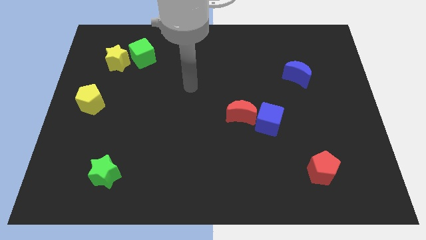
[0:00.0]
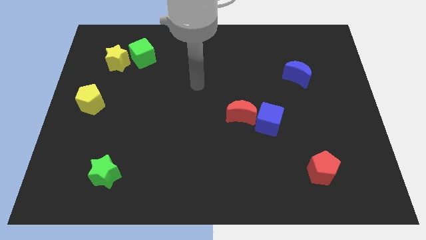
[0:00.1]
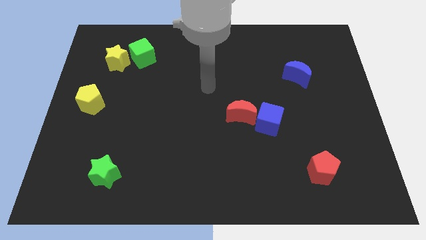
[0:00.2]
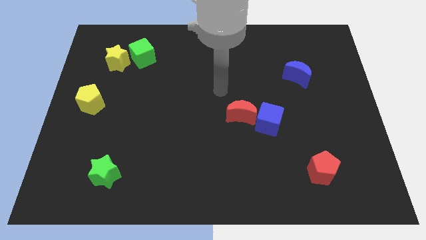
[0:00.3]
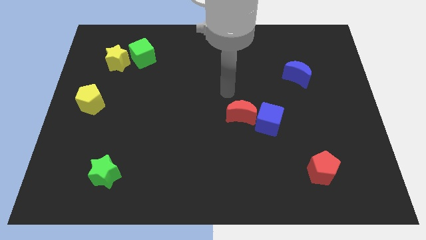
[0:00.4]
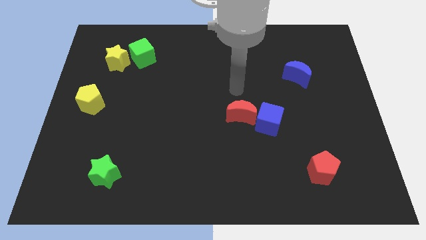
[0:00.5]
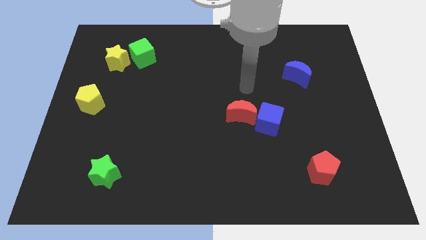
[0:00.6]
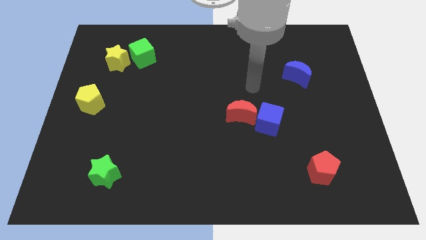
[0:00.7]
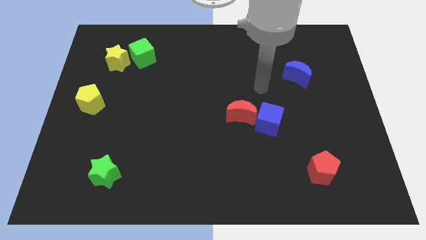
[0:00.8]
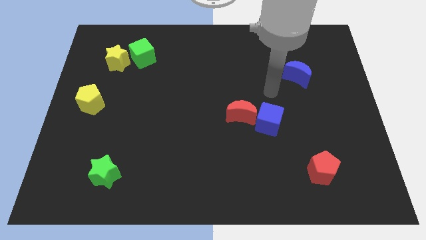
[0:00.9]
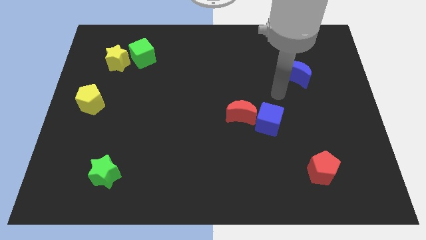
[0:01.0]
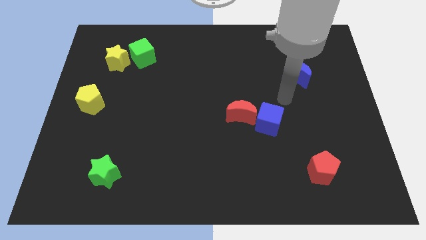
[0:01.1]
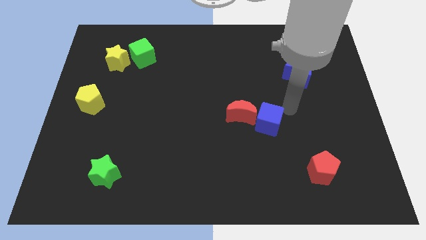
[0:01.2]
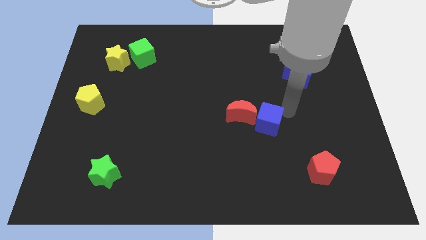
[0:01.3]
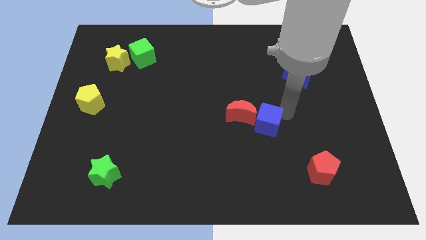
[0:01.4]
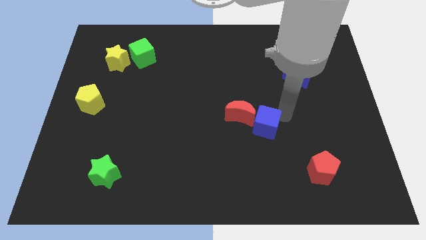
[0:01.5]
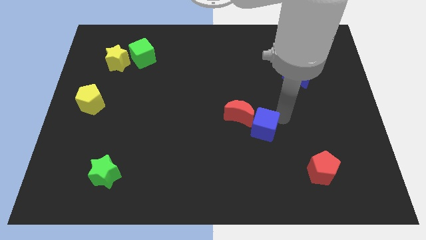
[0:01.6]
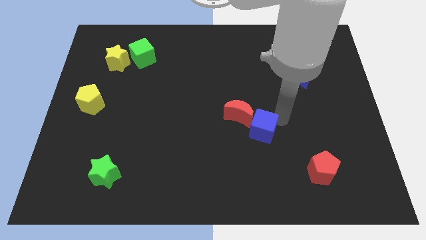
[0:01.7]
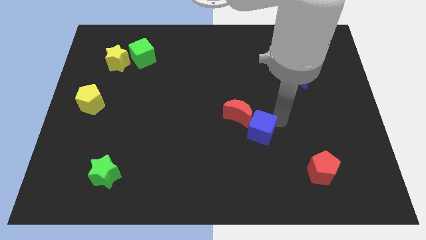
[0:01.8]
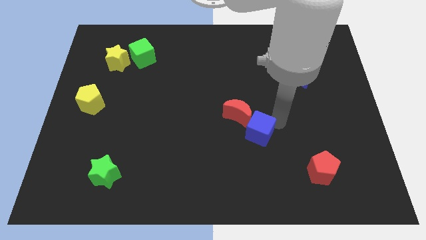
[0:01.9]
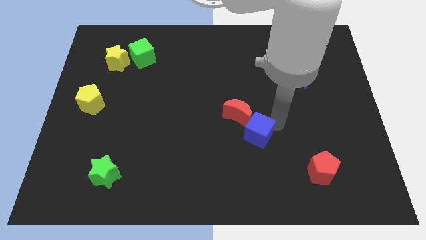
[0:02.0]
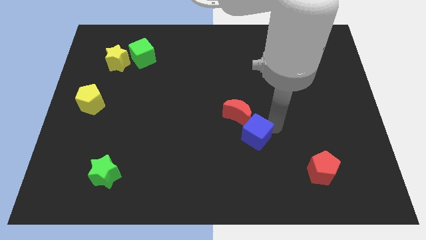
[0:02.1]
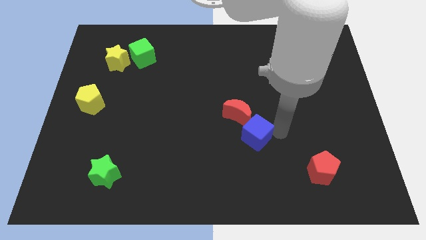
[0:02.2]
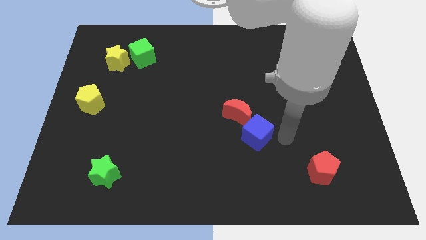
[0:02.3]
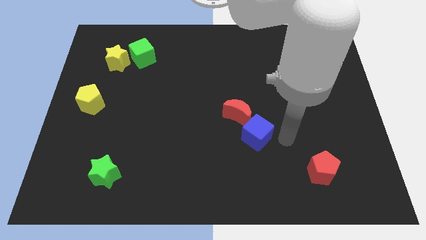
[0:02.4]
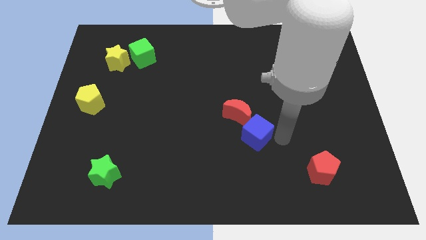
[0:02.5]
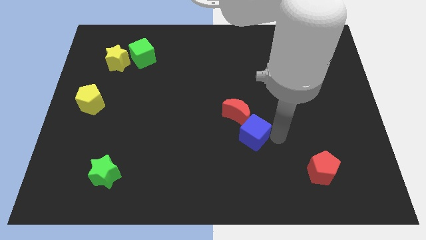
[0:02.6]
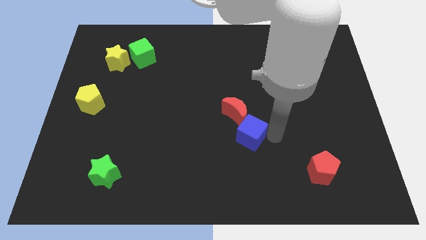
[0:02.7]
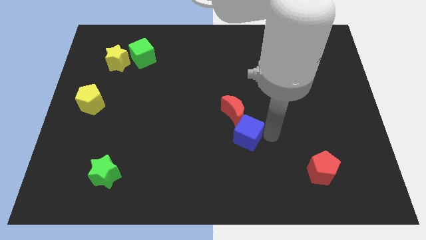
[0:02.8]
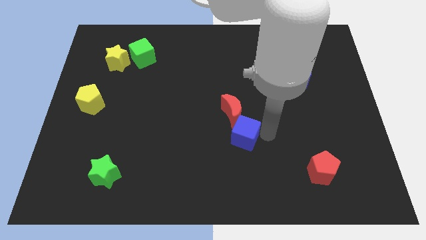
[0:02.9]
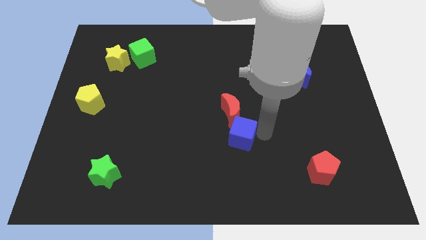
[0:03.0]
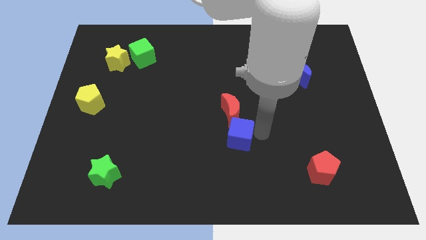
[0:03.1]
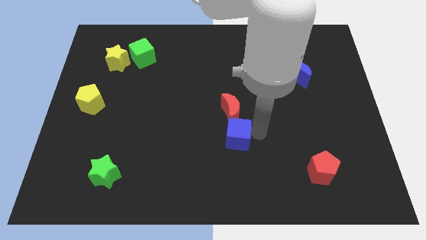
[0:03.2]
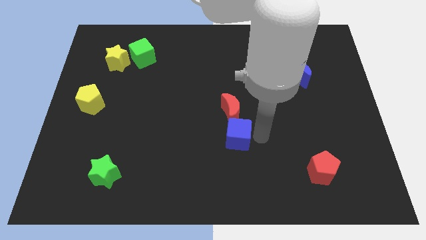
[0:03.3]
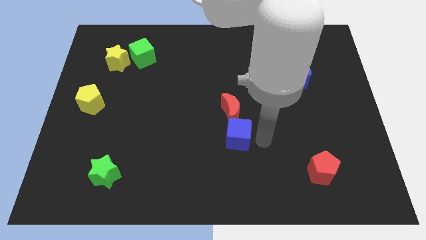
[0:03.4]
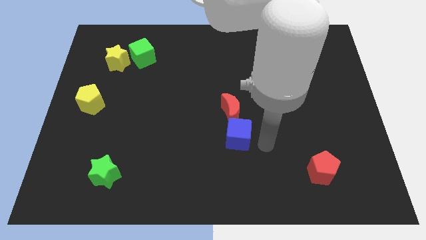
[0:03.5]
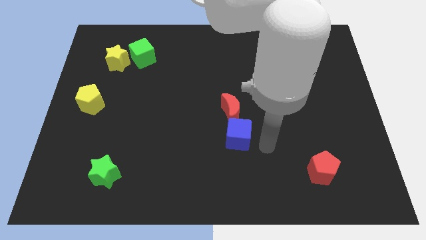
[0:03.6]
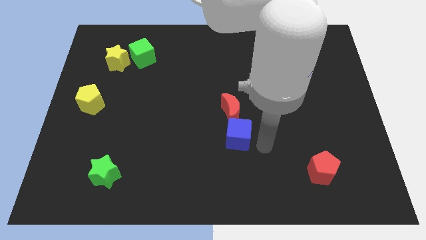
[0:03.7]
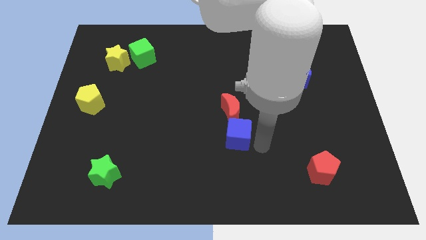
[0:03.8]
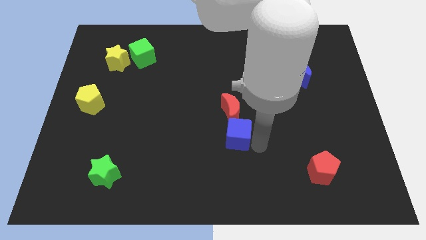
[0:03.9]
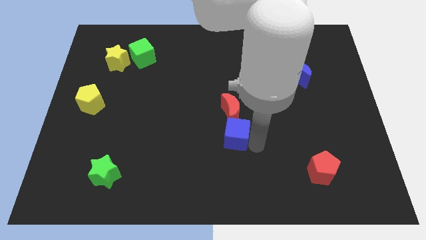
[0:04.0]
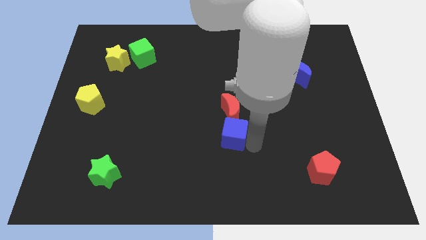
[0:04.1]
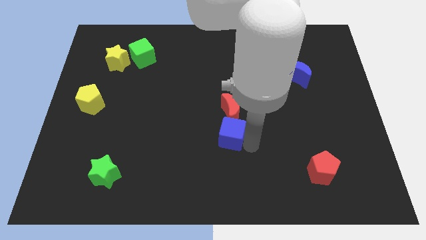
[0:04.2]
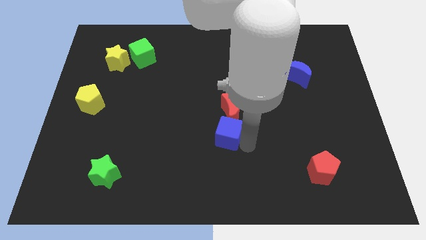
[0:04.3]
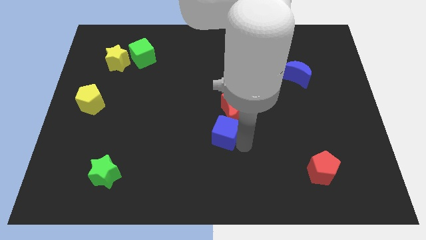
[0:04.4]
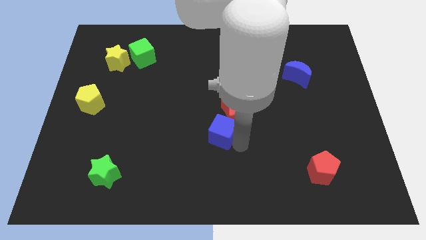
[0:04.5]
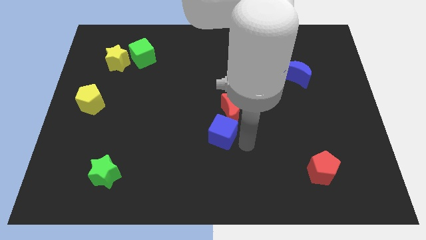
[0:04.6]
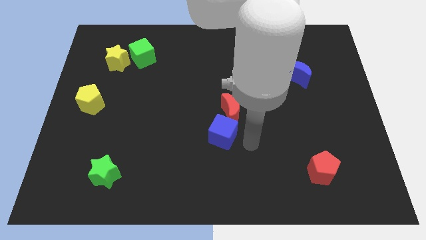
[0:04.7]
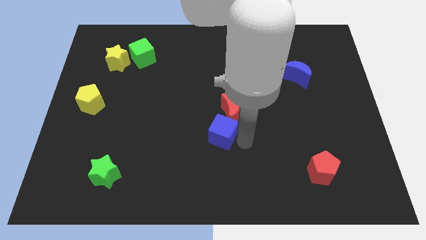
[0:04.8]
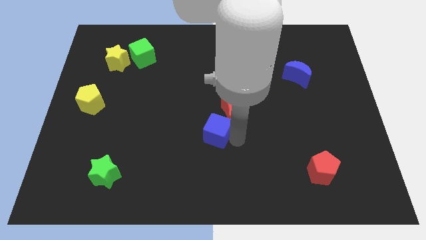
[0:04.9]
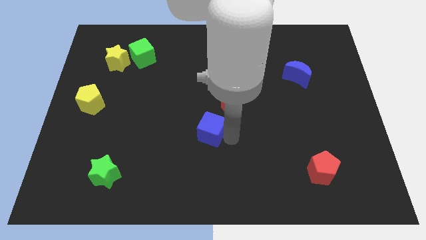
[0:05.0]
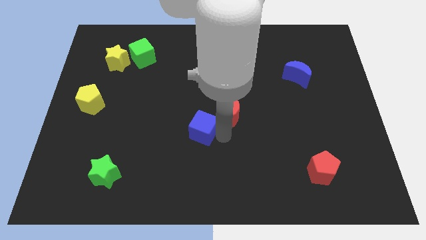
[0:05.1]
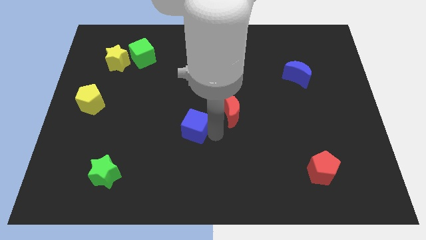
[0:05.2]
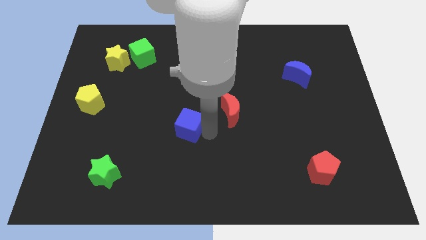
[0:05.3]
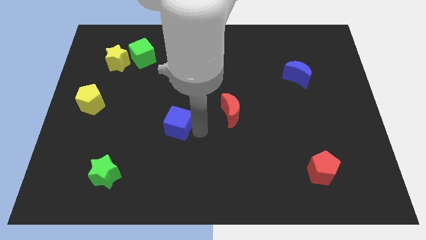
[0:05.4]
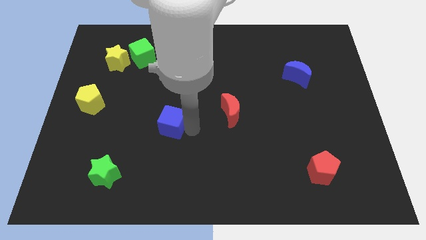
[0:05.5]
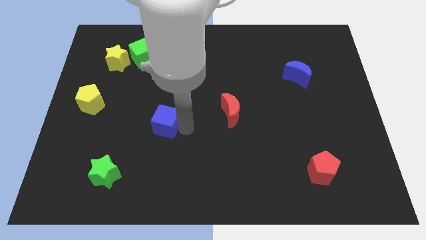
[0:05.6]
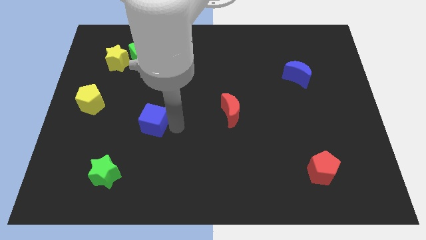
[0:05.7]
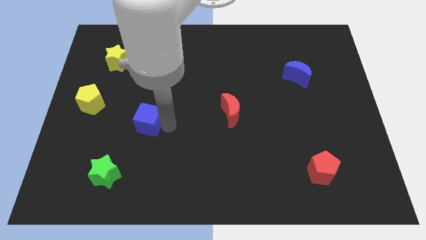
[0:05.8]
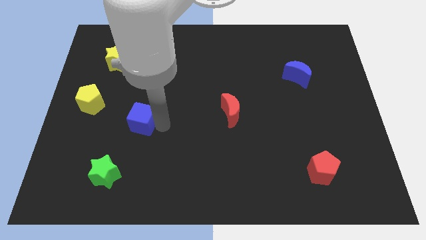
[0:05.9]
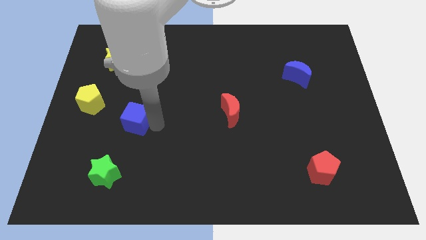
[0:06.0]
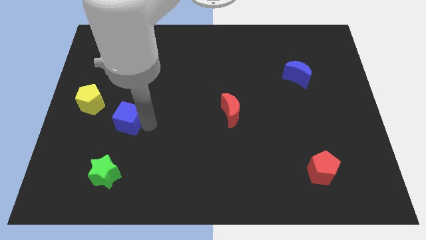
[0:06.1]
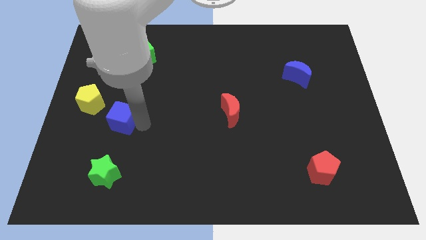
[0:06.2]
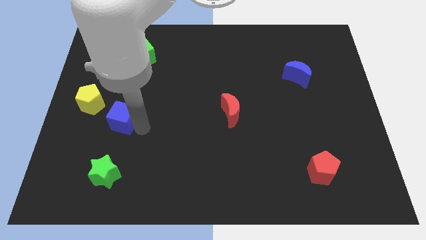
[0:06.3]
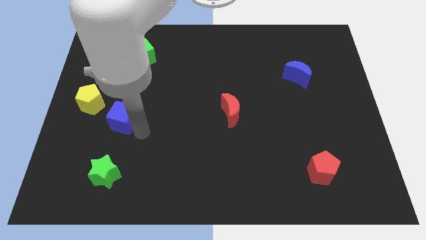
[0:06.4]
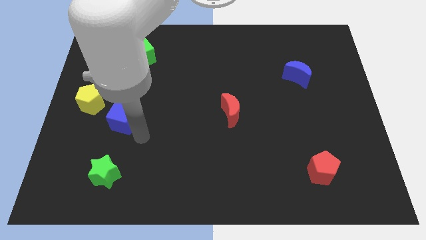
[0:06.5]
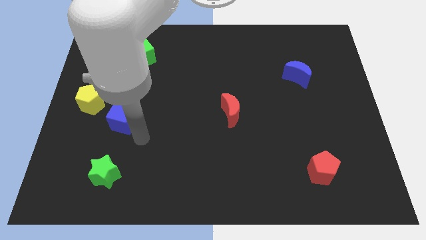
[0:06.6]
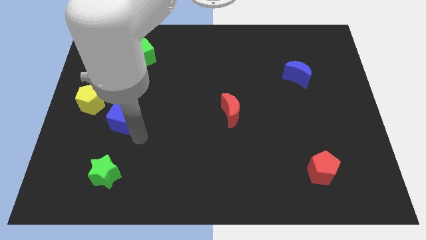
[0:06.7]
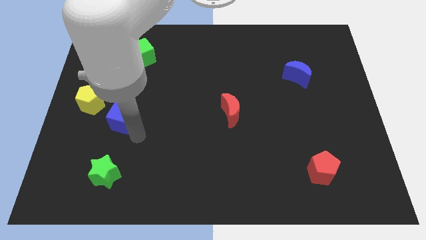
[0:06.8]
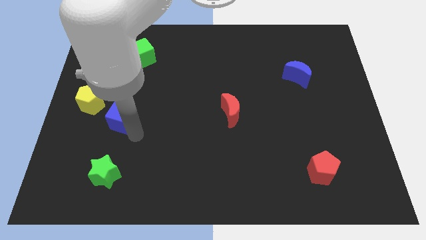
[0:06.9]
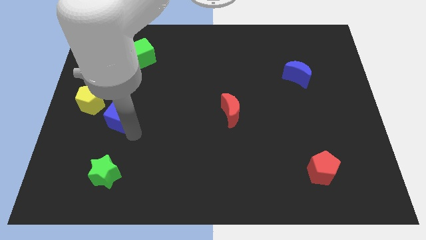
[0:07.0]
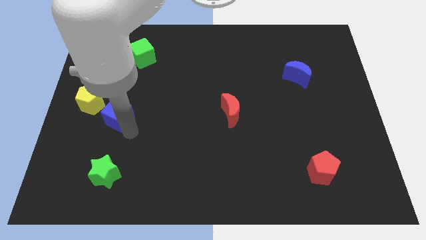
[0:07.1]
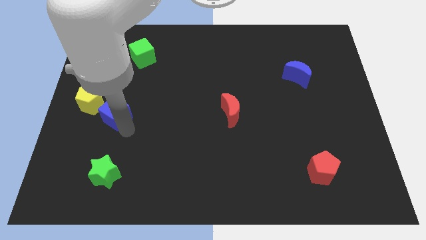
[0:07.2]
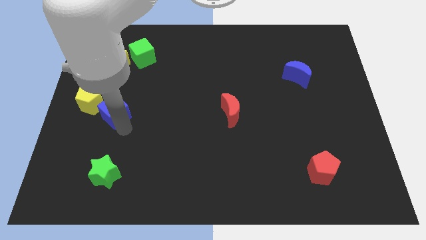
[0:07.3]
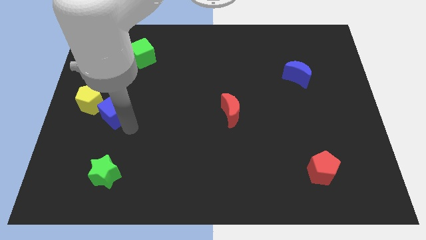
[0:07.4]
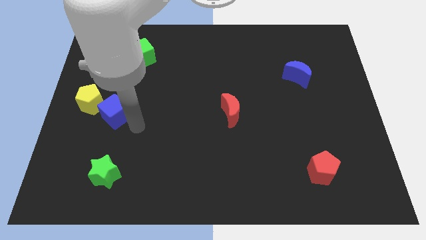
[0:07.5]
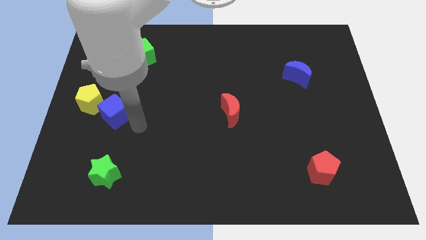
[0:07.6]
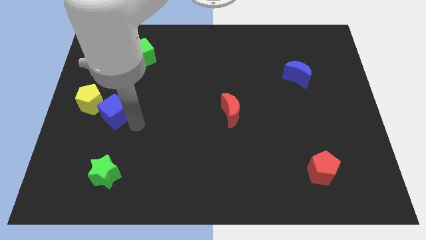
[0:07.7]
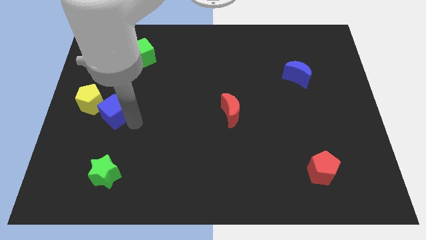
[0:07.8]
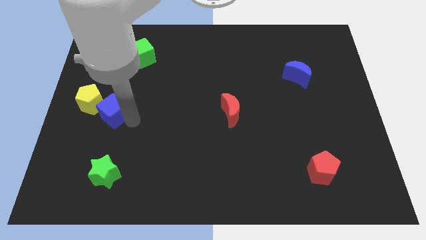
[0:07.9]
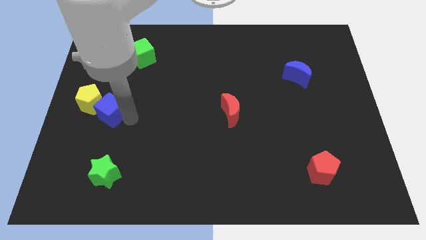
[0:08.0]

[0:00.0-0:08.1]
move the blue cube towards the yellow pentagon
